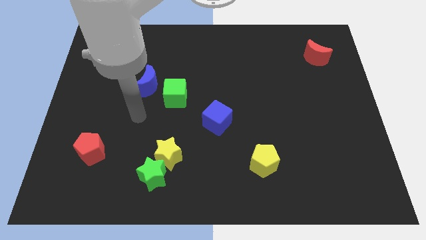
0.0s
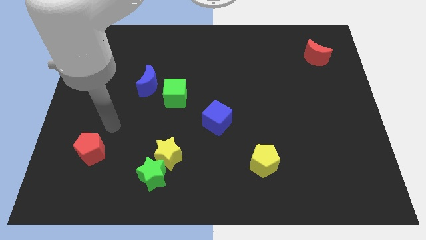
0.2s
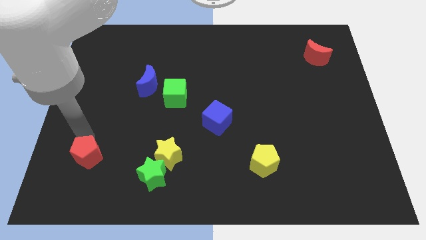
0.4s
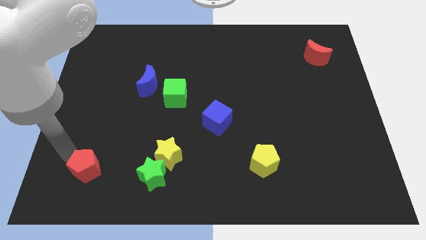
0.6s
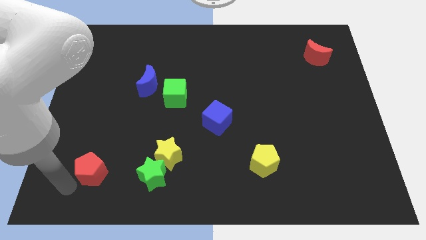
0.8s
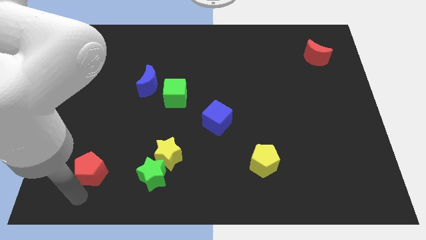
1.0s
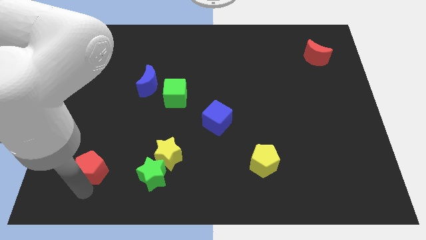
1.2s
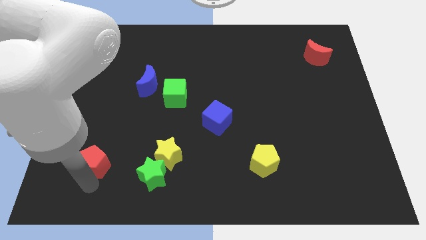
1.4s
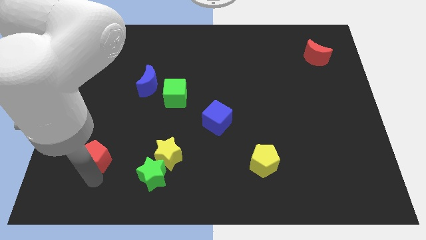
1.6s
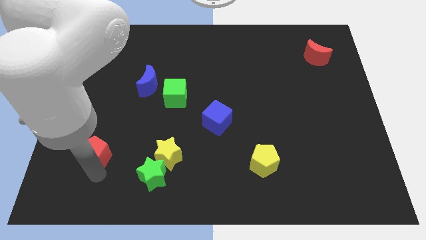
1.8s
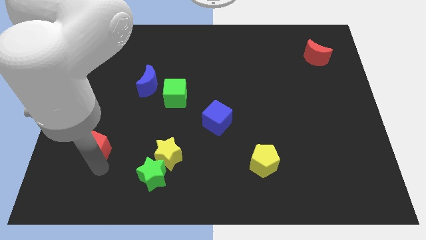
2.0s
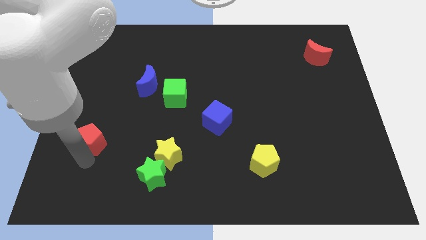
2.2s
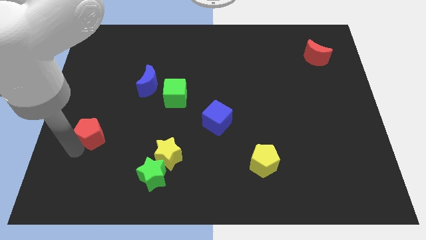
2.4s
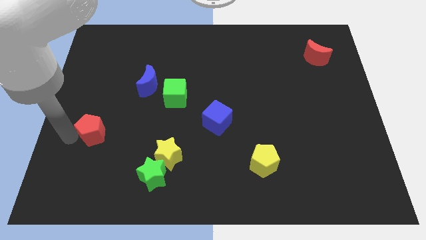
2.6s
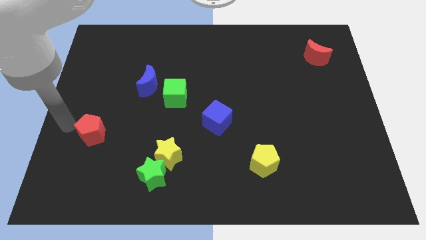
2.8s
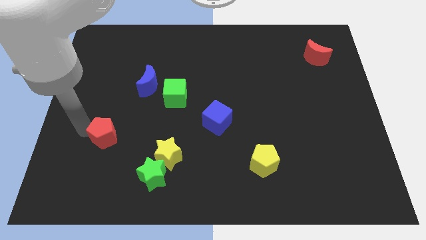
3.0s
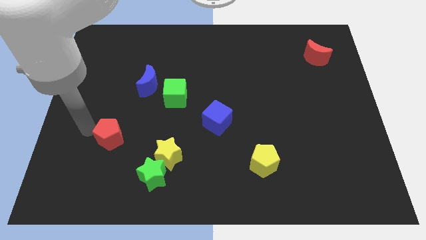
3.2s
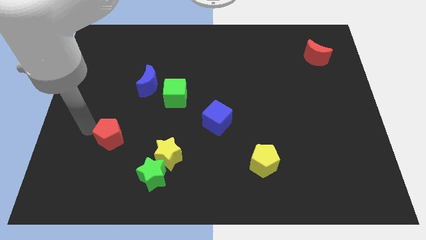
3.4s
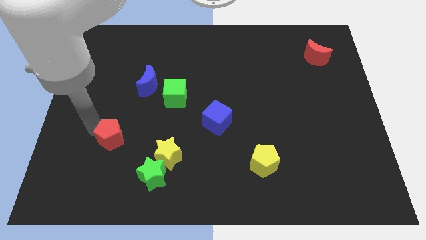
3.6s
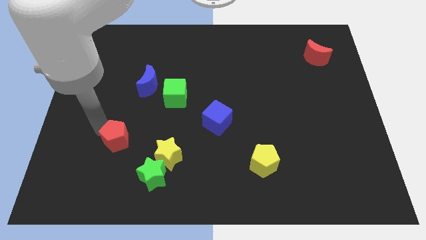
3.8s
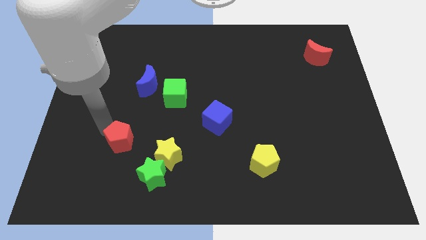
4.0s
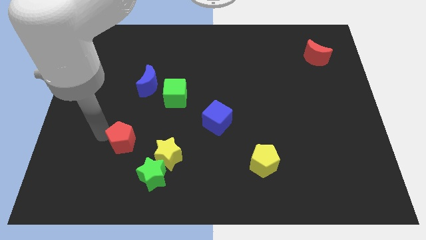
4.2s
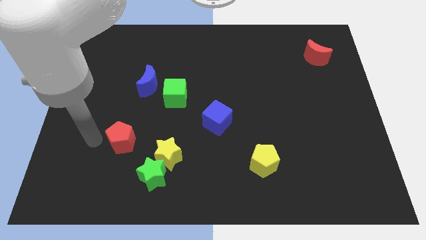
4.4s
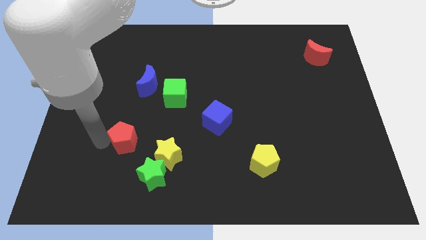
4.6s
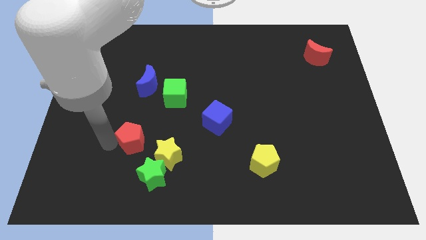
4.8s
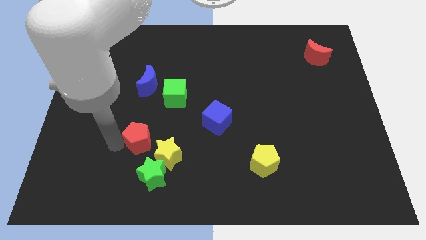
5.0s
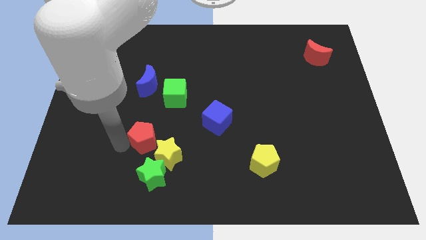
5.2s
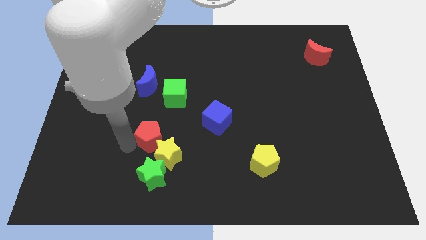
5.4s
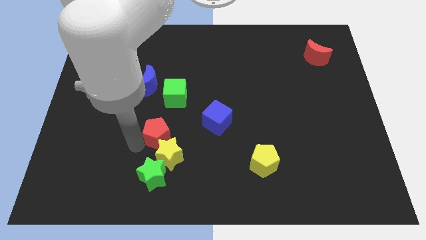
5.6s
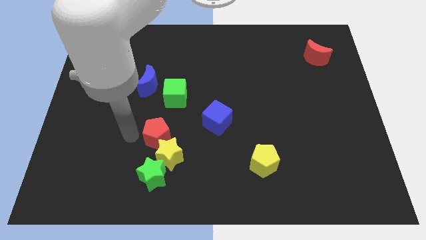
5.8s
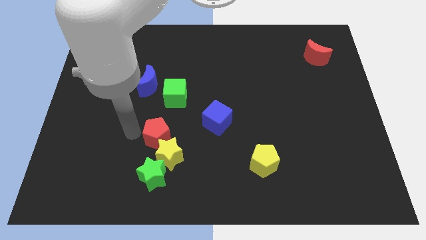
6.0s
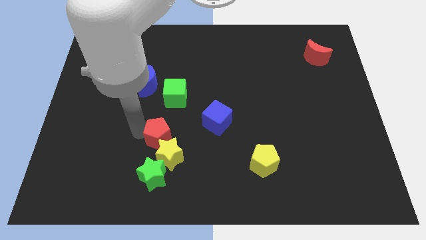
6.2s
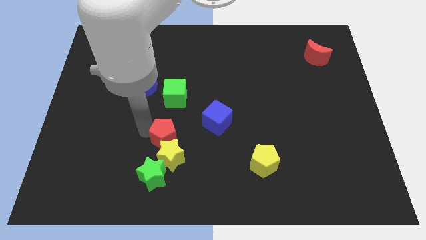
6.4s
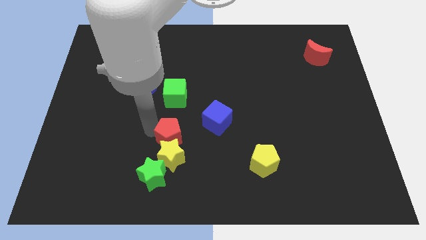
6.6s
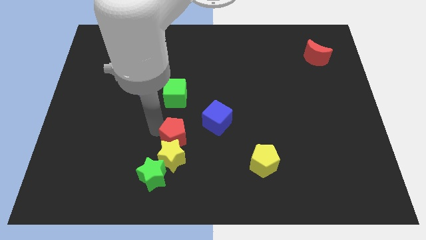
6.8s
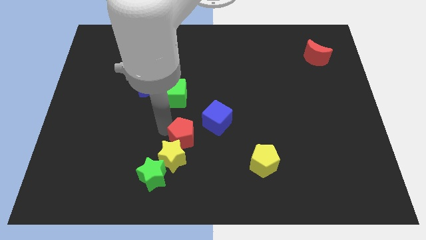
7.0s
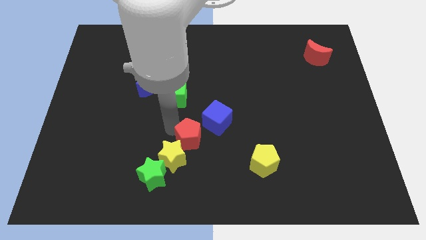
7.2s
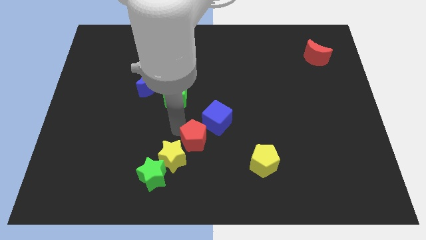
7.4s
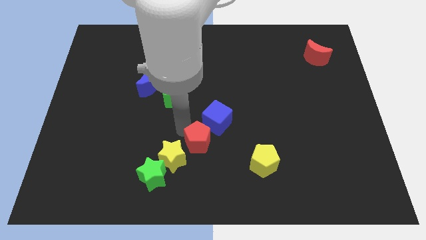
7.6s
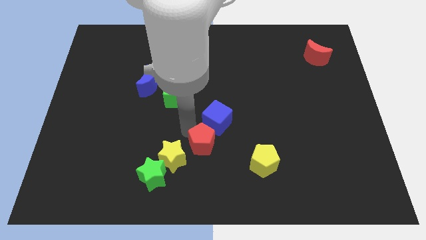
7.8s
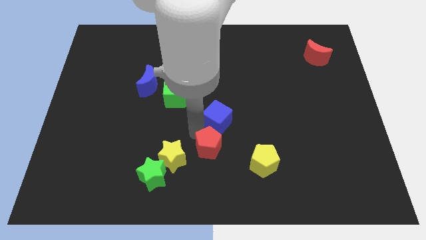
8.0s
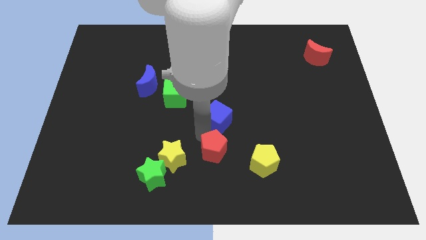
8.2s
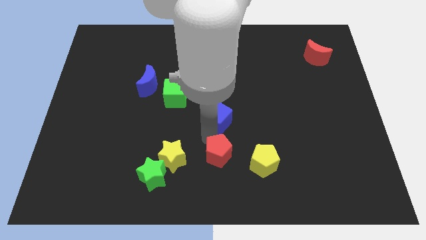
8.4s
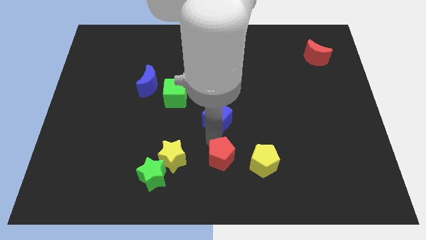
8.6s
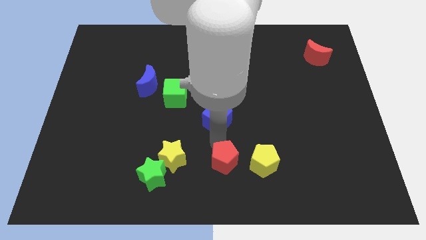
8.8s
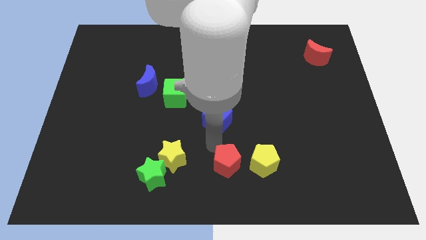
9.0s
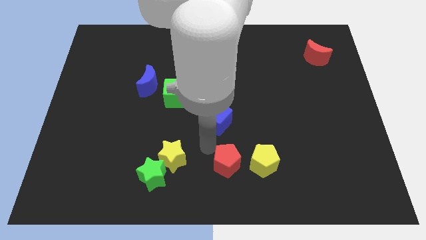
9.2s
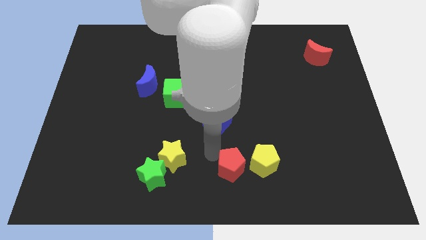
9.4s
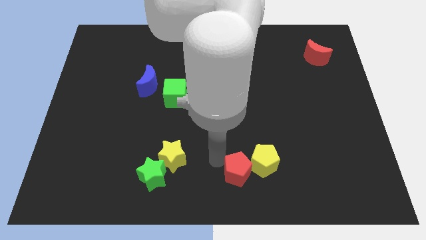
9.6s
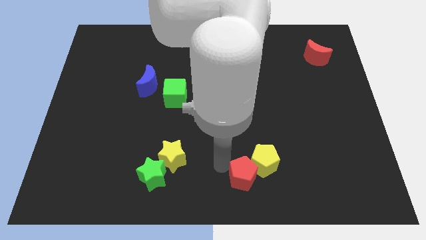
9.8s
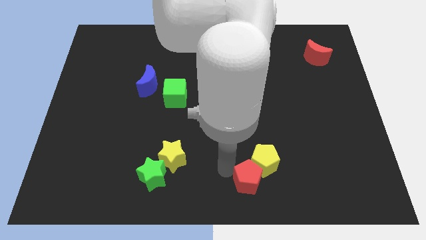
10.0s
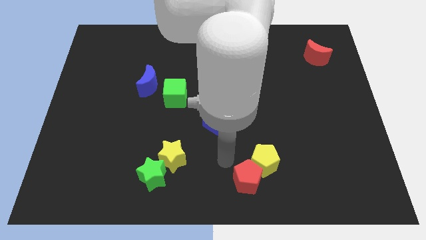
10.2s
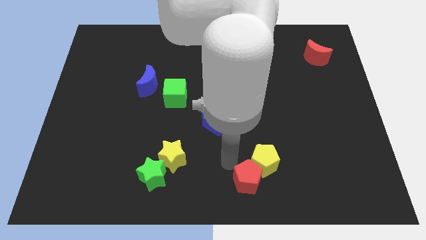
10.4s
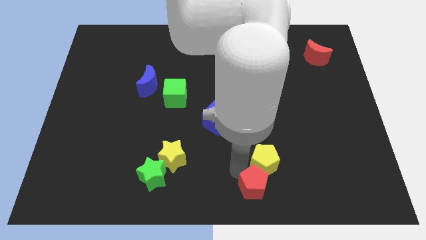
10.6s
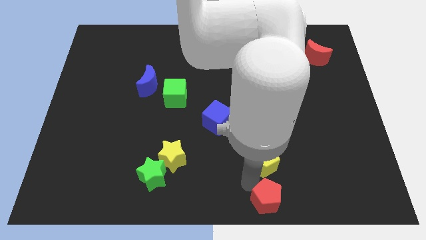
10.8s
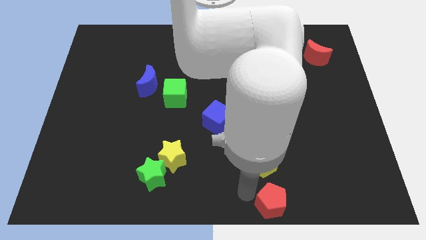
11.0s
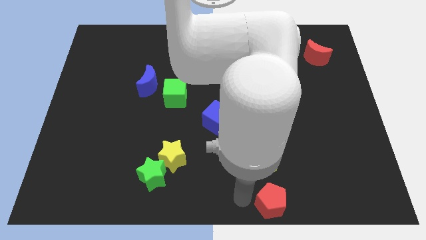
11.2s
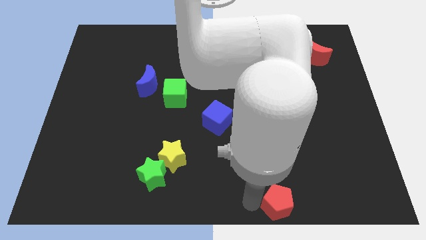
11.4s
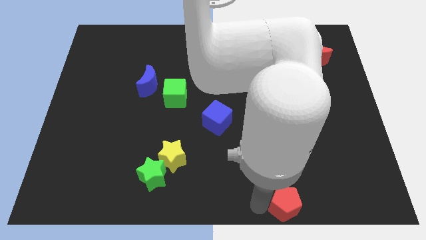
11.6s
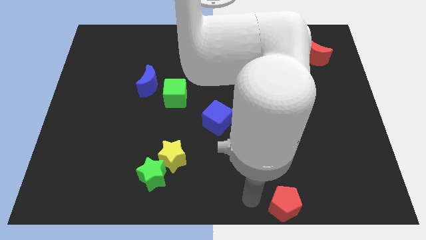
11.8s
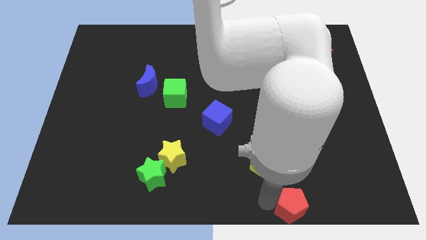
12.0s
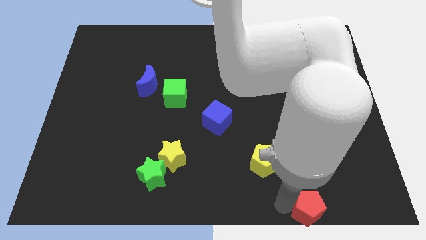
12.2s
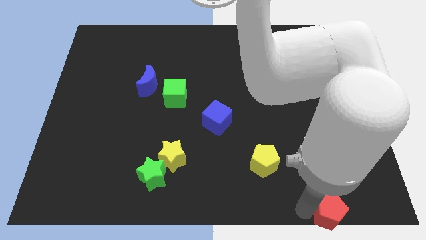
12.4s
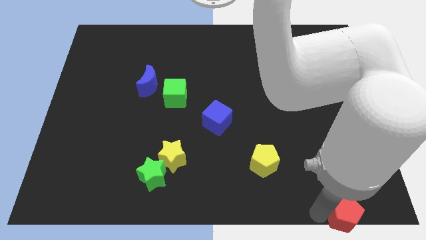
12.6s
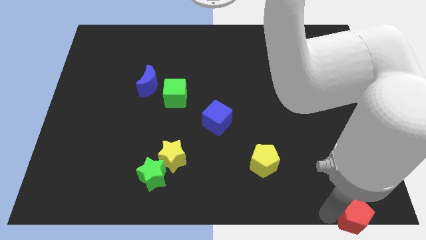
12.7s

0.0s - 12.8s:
put the red pentagon to the lower right corner
